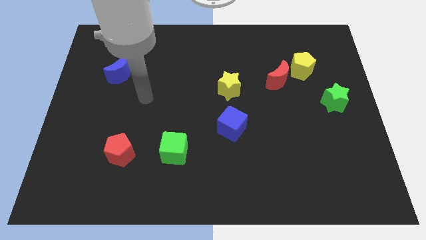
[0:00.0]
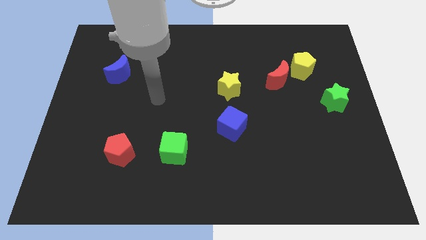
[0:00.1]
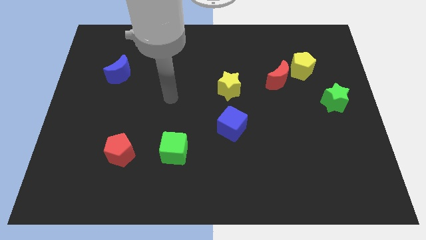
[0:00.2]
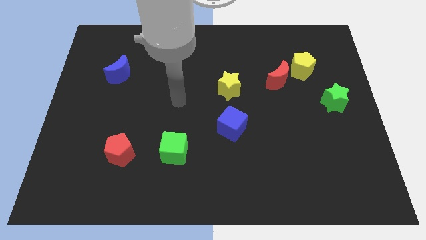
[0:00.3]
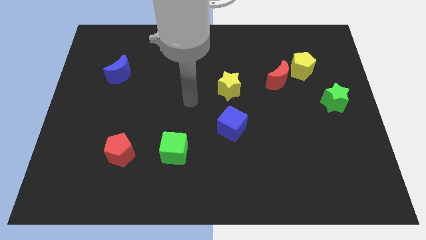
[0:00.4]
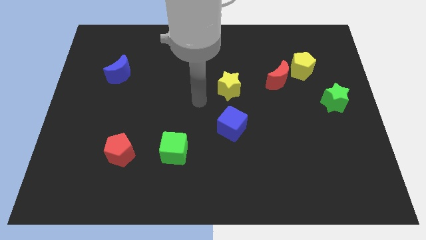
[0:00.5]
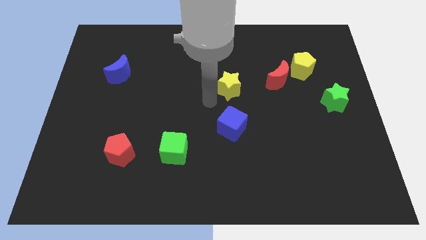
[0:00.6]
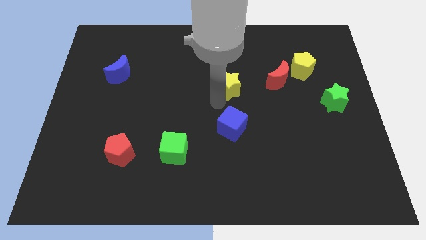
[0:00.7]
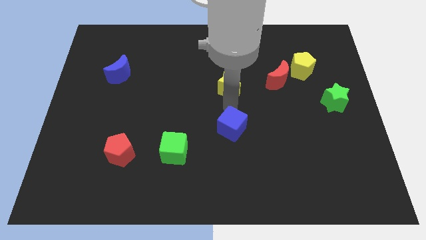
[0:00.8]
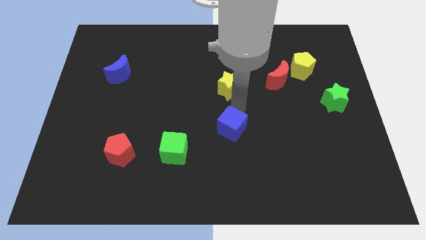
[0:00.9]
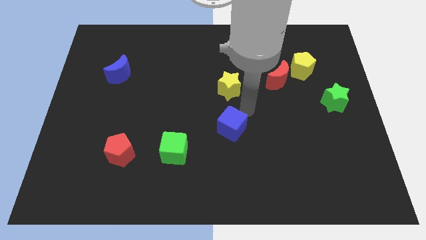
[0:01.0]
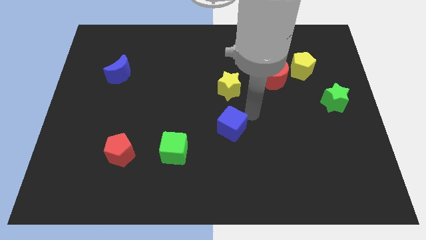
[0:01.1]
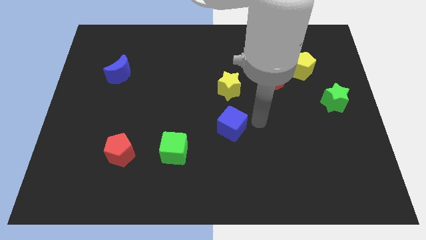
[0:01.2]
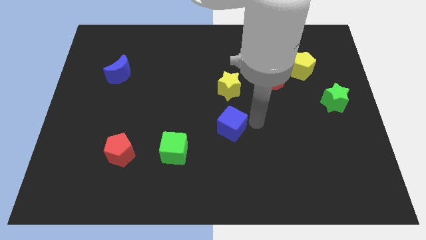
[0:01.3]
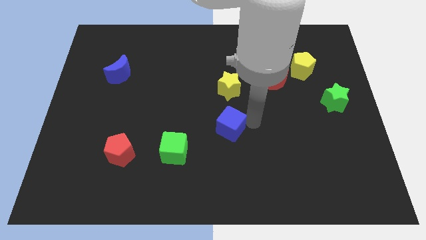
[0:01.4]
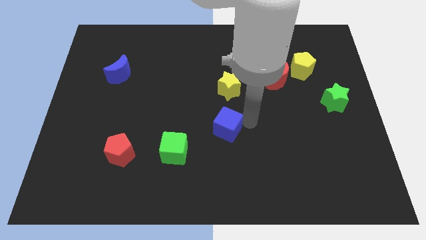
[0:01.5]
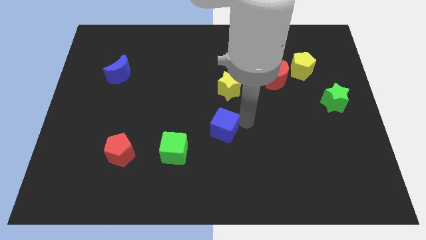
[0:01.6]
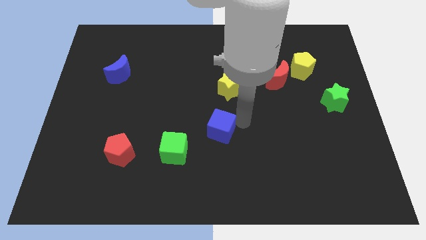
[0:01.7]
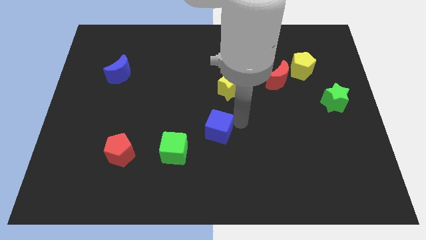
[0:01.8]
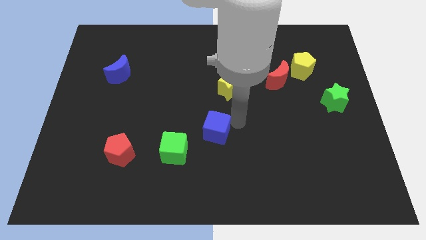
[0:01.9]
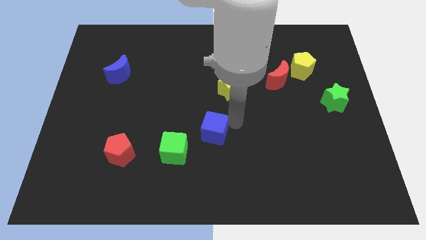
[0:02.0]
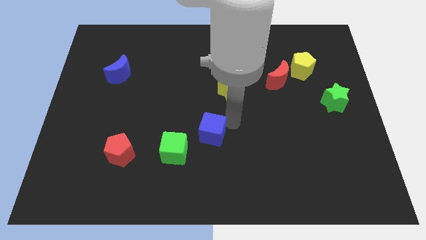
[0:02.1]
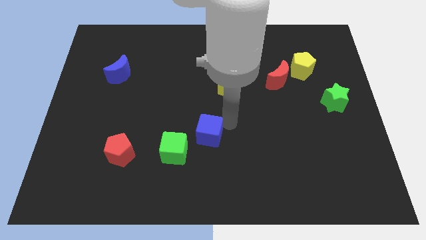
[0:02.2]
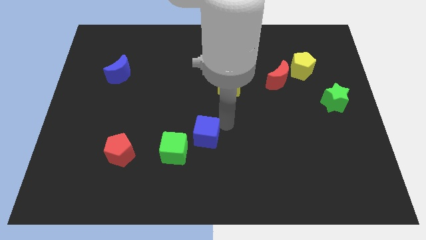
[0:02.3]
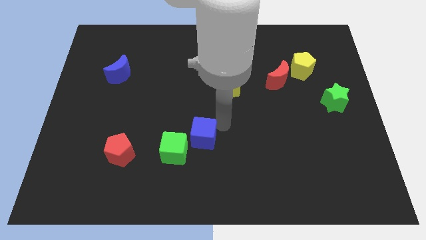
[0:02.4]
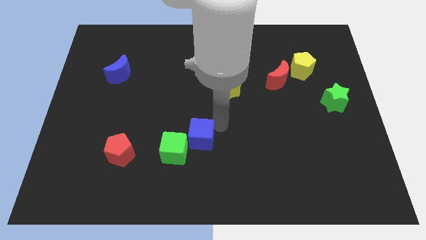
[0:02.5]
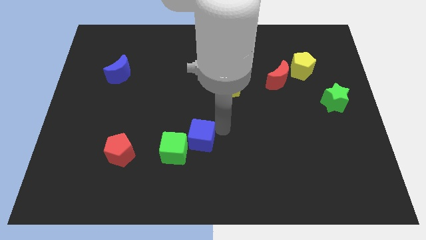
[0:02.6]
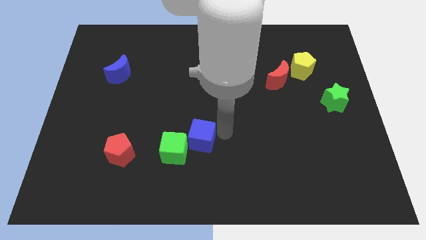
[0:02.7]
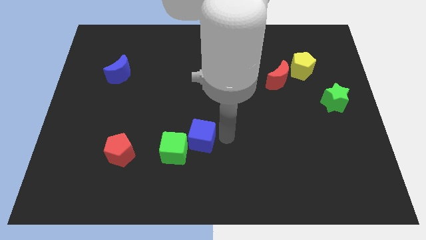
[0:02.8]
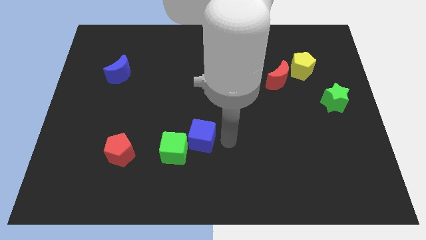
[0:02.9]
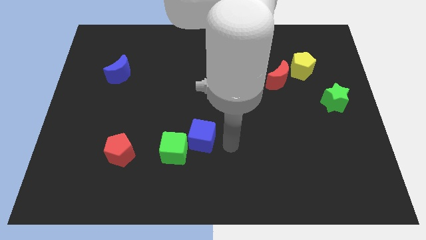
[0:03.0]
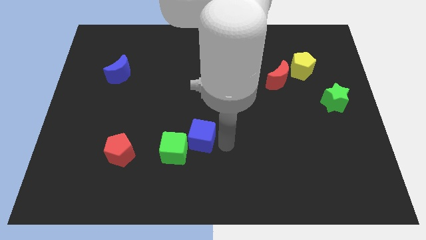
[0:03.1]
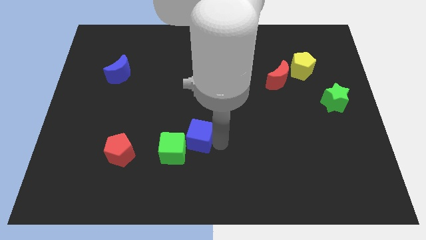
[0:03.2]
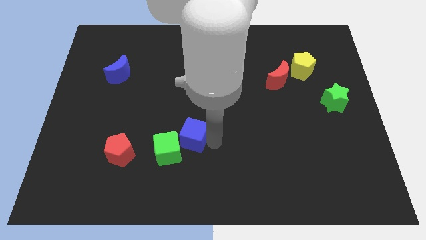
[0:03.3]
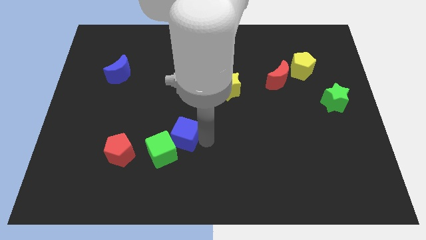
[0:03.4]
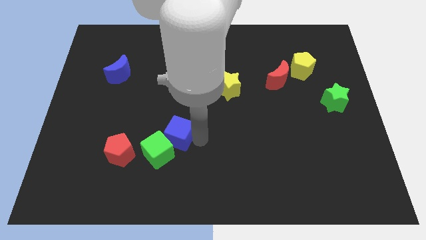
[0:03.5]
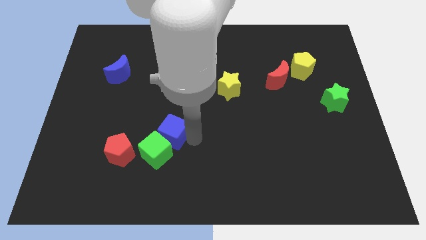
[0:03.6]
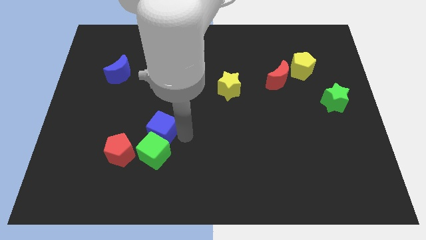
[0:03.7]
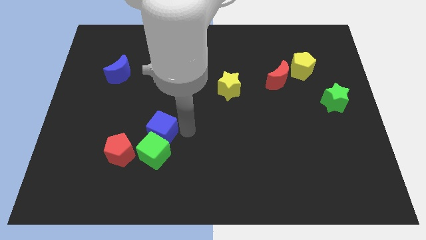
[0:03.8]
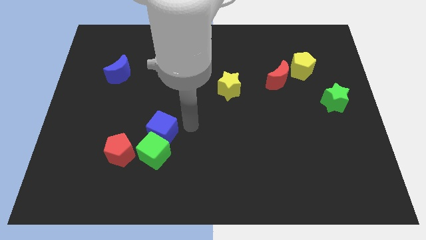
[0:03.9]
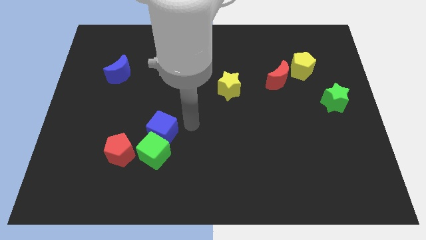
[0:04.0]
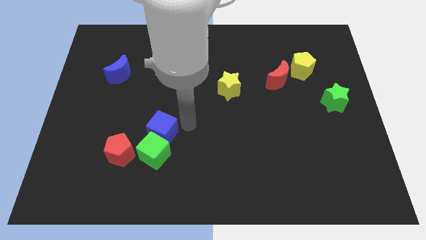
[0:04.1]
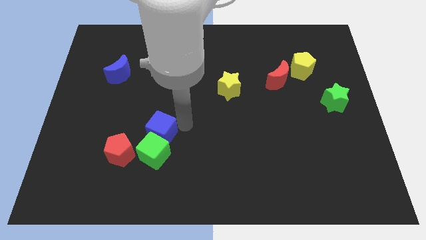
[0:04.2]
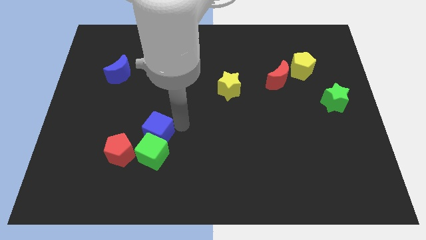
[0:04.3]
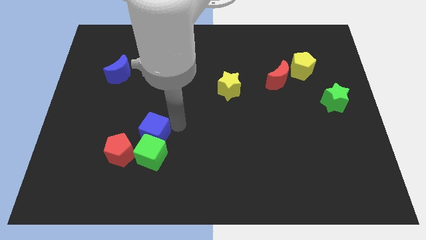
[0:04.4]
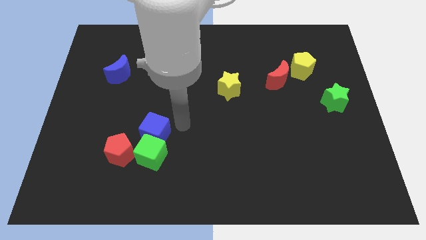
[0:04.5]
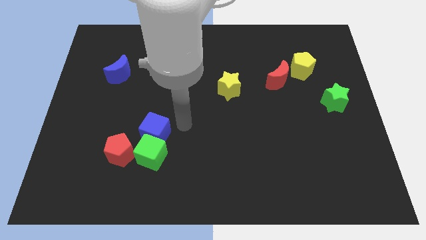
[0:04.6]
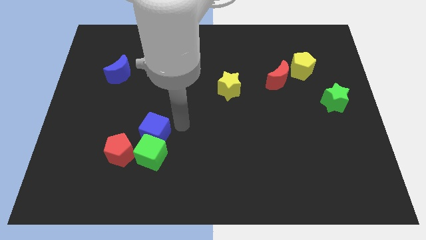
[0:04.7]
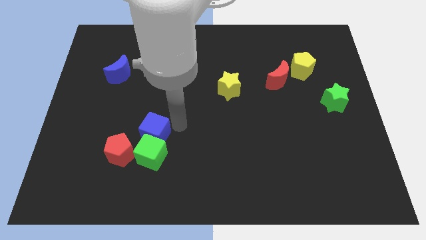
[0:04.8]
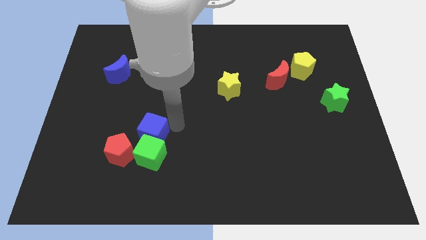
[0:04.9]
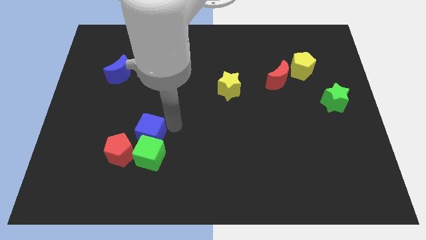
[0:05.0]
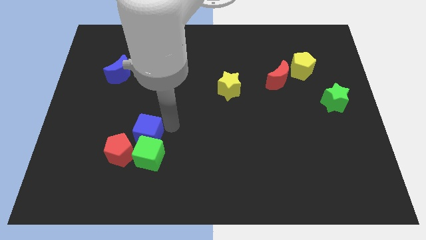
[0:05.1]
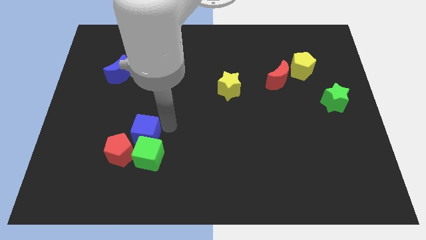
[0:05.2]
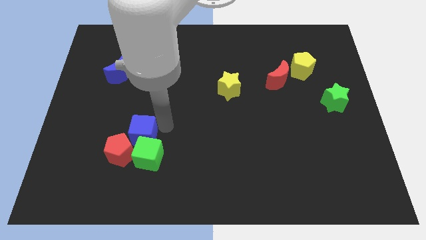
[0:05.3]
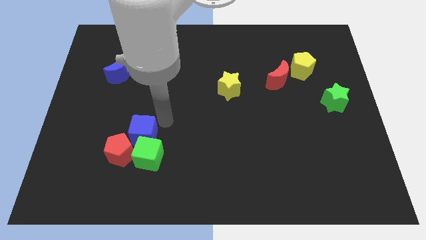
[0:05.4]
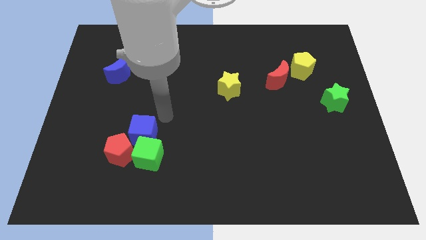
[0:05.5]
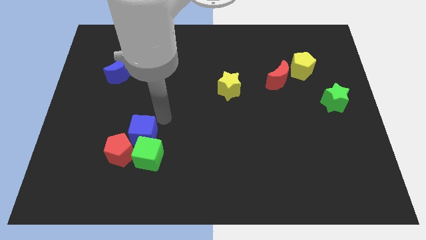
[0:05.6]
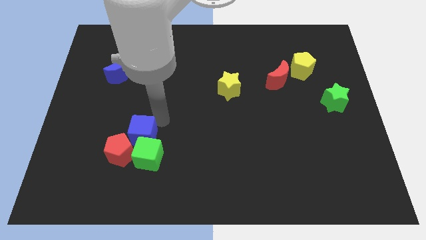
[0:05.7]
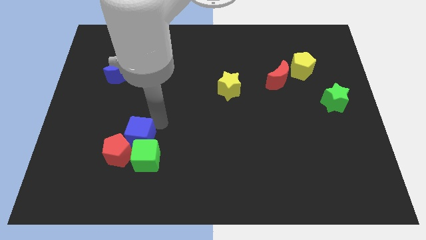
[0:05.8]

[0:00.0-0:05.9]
move the blue cube next to the red pentagon

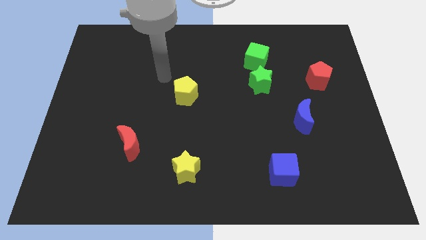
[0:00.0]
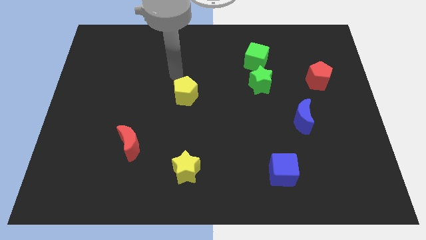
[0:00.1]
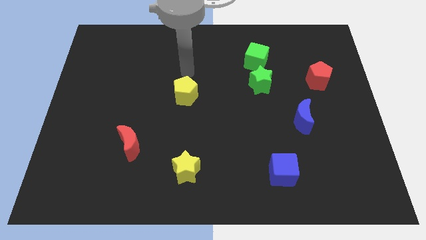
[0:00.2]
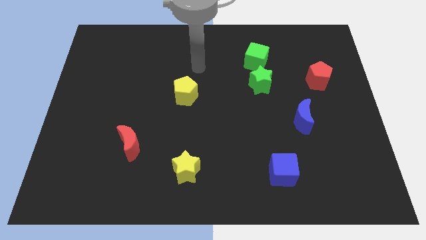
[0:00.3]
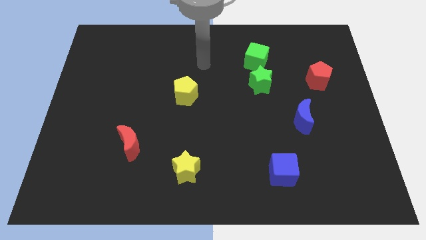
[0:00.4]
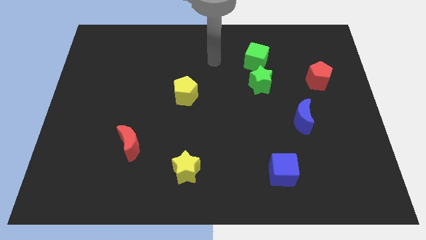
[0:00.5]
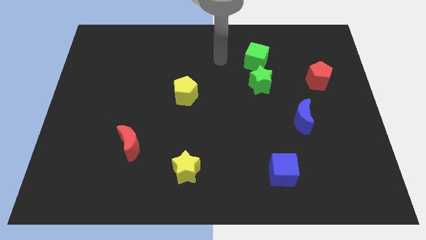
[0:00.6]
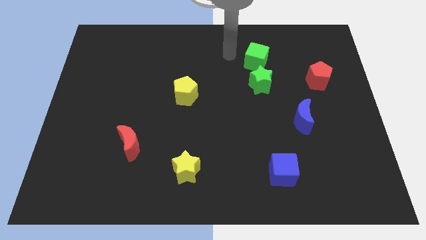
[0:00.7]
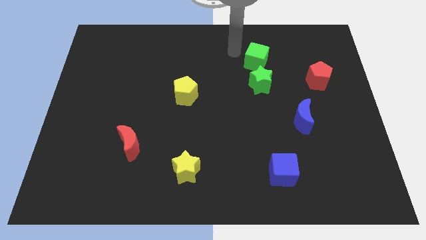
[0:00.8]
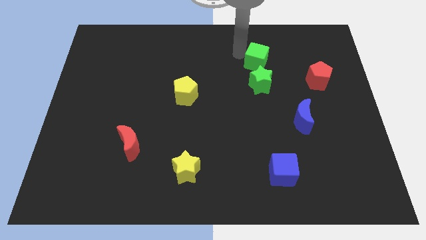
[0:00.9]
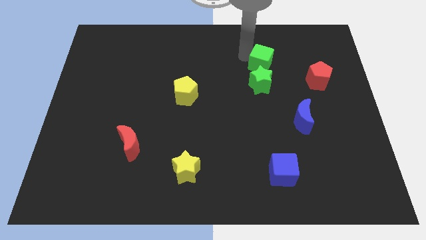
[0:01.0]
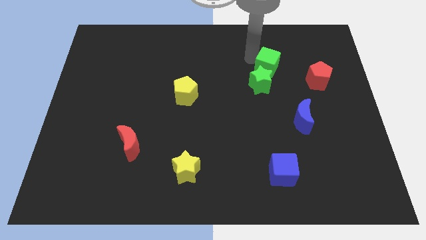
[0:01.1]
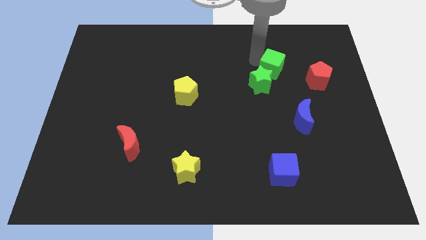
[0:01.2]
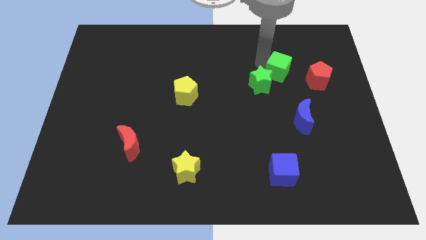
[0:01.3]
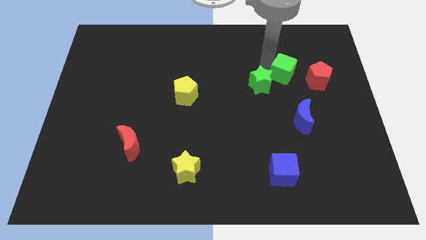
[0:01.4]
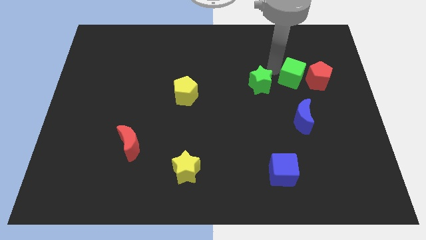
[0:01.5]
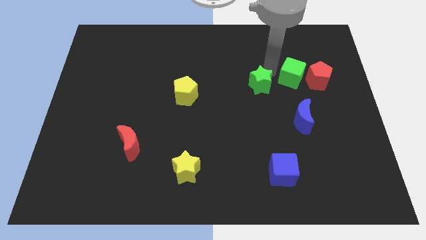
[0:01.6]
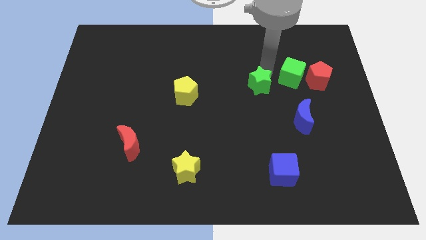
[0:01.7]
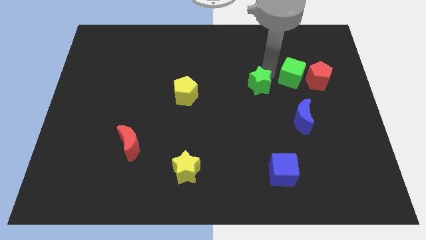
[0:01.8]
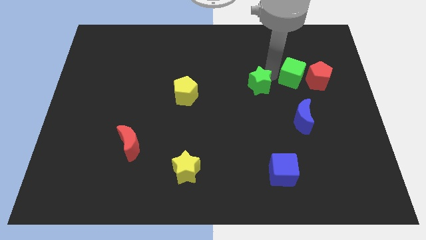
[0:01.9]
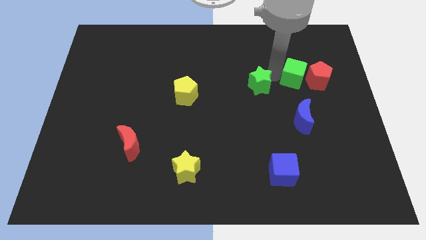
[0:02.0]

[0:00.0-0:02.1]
push the green cube next to the red pentagon
